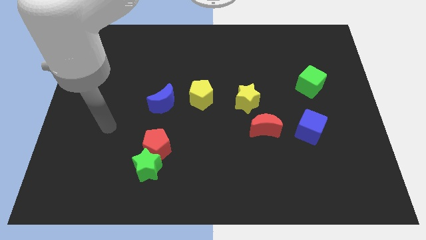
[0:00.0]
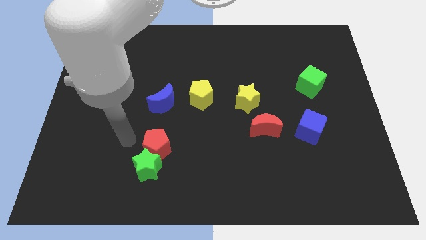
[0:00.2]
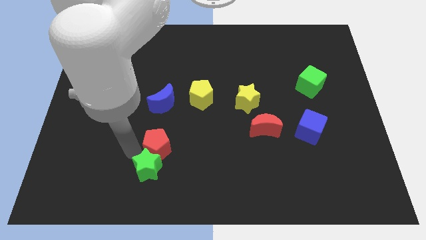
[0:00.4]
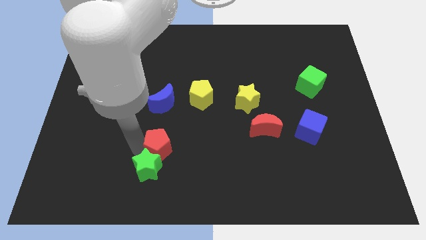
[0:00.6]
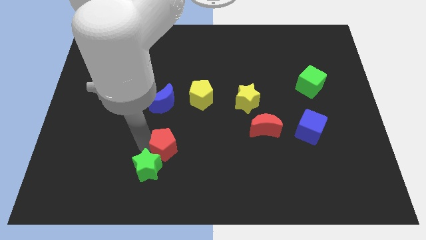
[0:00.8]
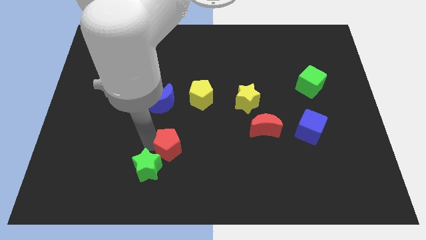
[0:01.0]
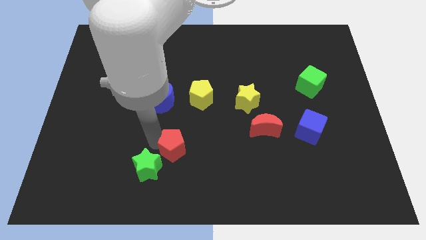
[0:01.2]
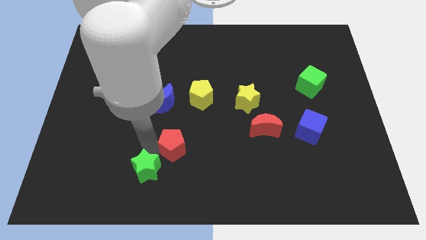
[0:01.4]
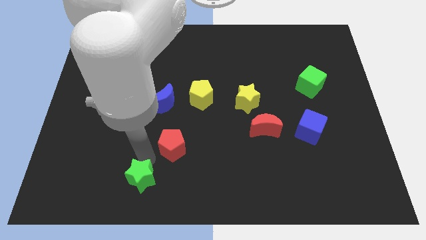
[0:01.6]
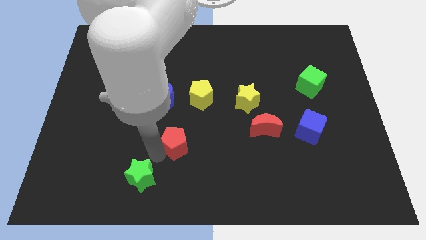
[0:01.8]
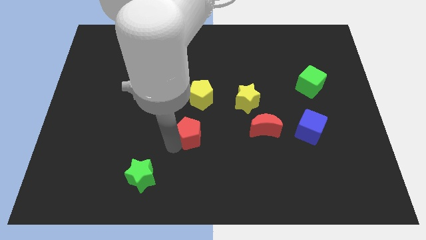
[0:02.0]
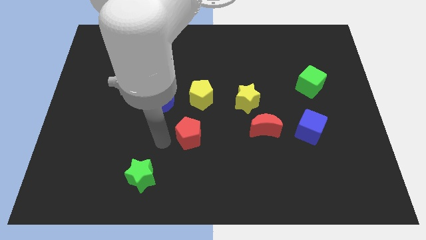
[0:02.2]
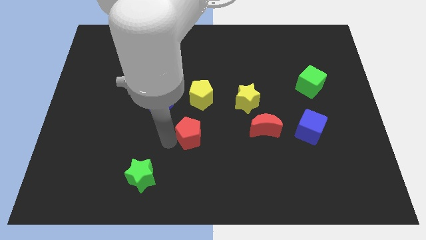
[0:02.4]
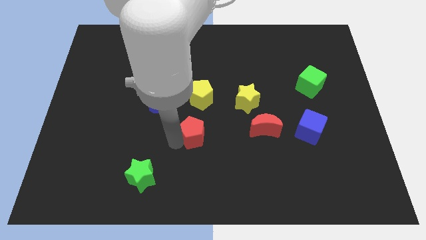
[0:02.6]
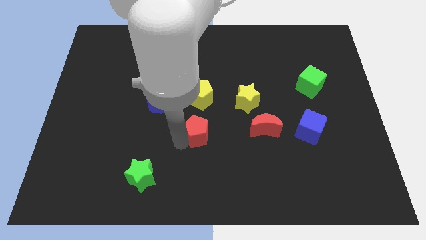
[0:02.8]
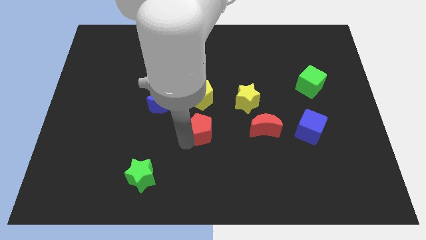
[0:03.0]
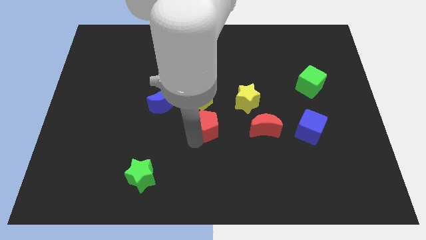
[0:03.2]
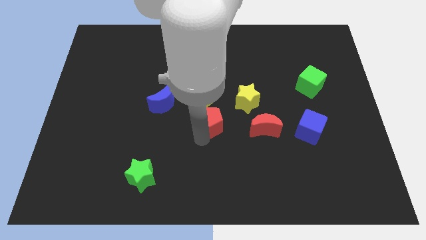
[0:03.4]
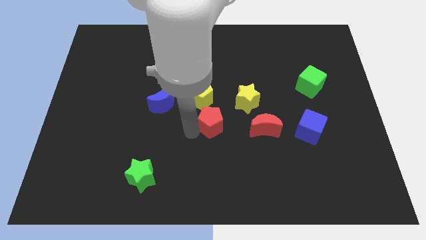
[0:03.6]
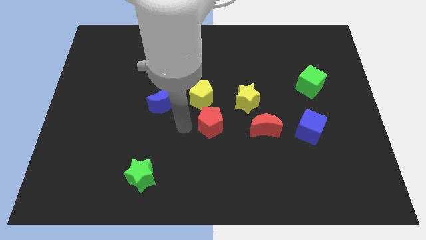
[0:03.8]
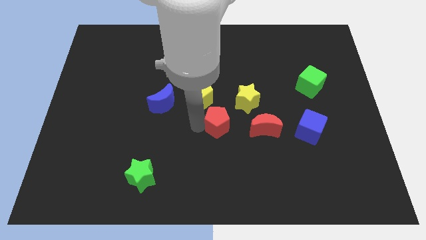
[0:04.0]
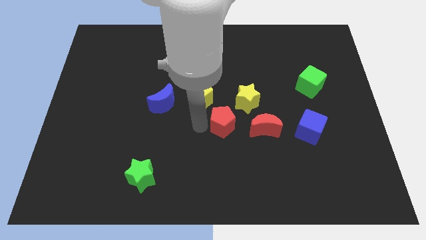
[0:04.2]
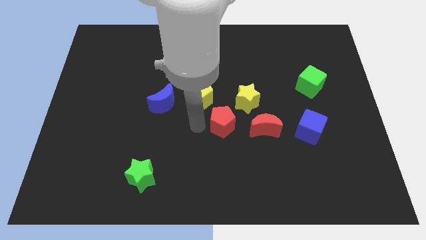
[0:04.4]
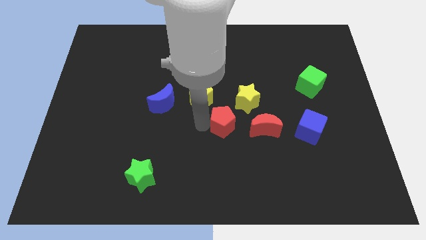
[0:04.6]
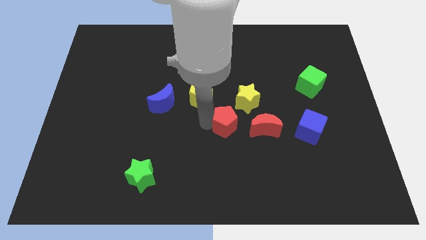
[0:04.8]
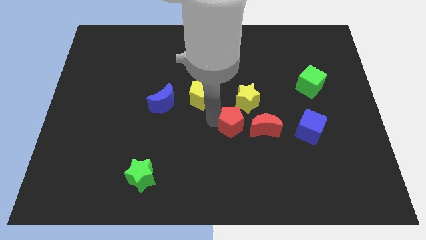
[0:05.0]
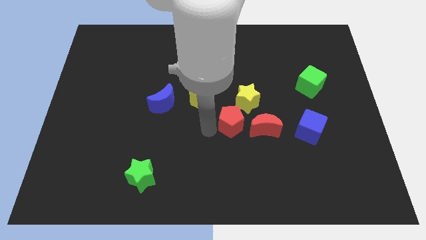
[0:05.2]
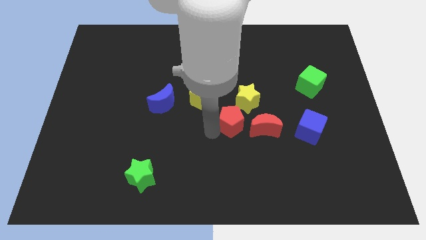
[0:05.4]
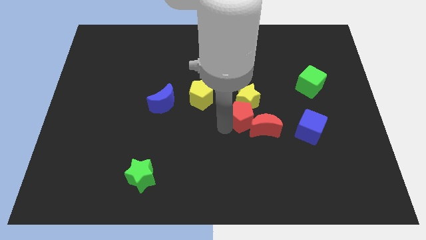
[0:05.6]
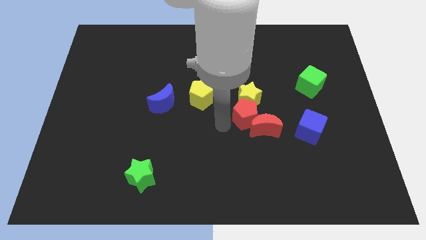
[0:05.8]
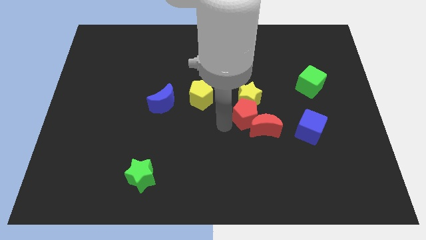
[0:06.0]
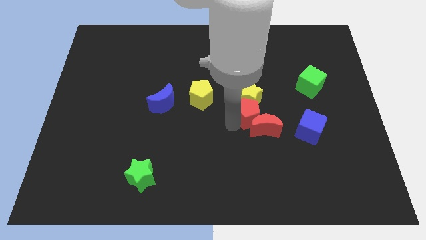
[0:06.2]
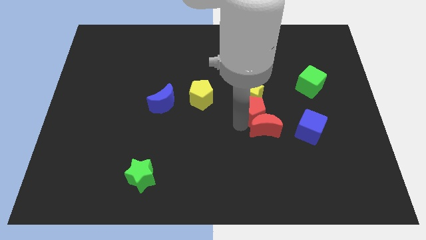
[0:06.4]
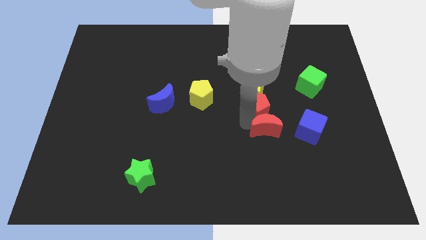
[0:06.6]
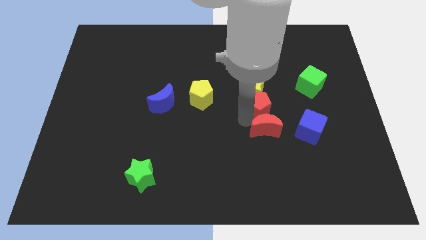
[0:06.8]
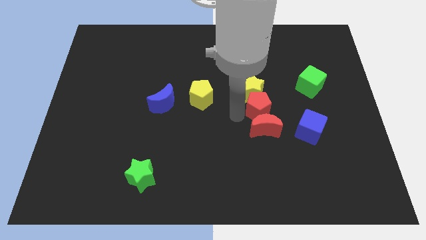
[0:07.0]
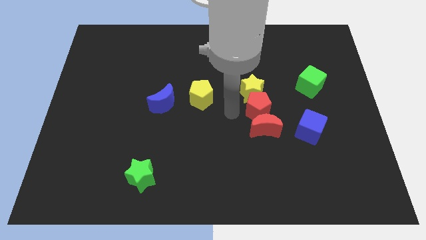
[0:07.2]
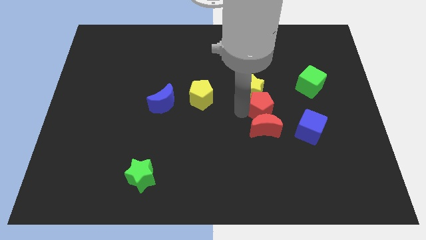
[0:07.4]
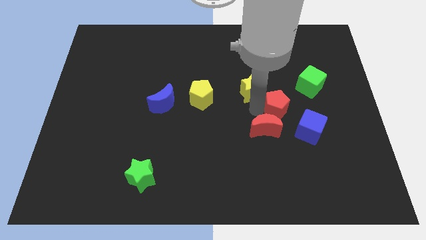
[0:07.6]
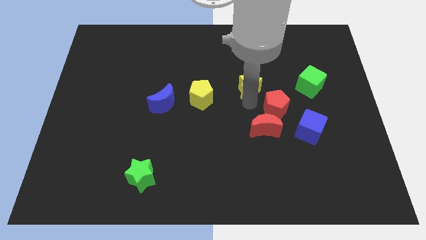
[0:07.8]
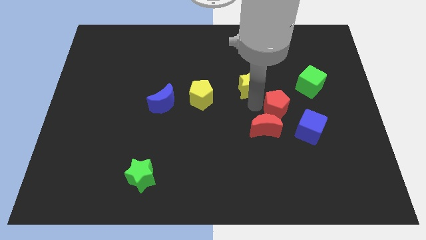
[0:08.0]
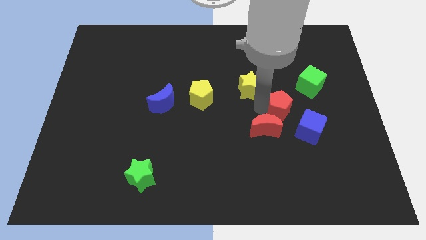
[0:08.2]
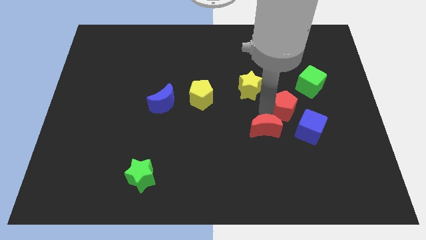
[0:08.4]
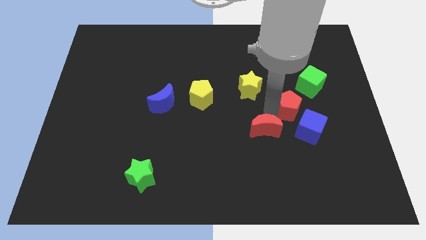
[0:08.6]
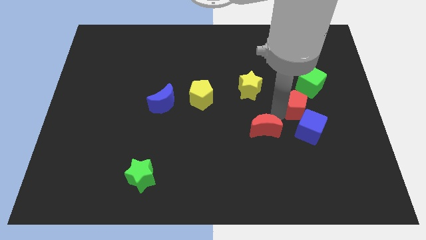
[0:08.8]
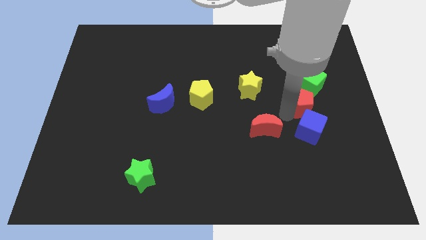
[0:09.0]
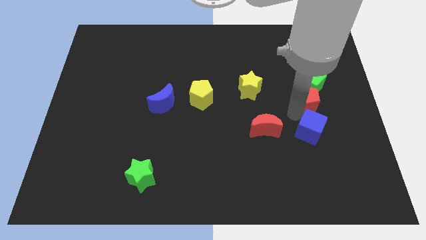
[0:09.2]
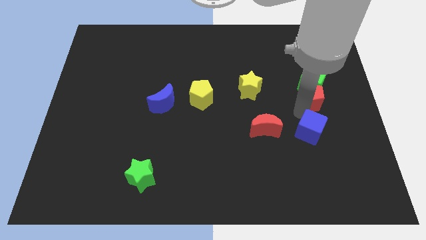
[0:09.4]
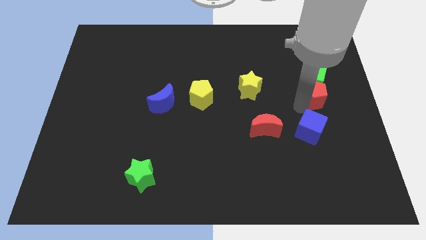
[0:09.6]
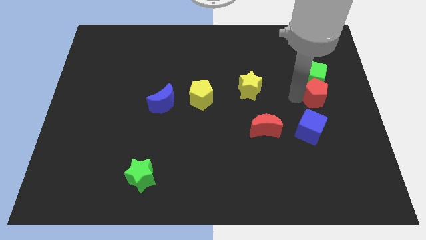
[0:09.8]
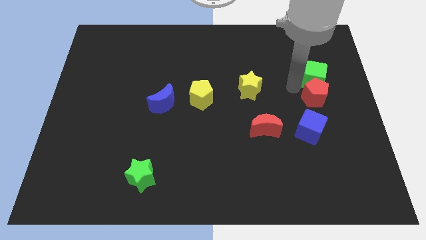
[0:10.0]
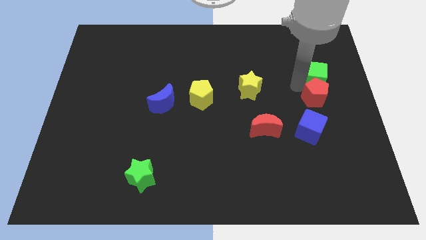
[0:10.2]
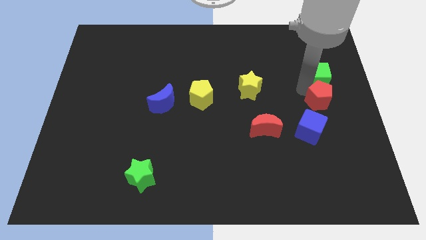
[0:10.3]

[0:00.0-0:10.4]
slide the red pentagon to the right side

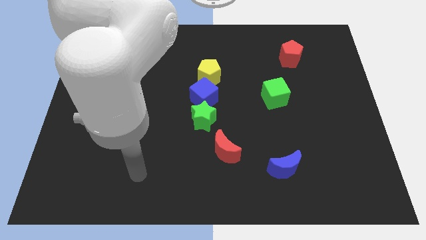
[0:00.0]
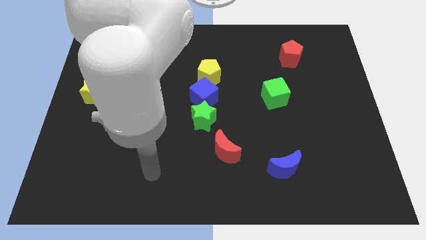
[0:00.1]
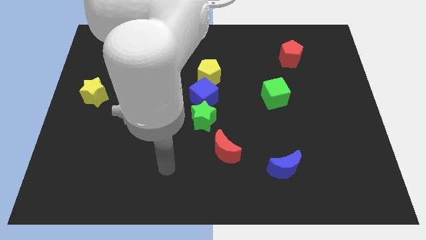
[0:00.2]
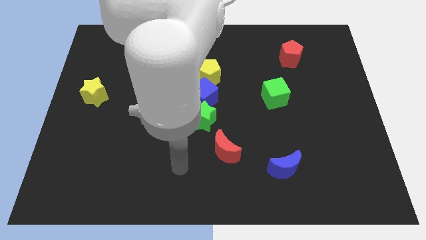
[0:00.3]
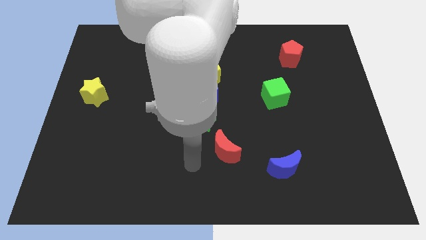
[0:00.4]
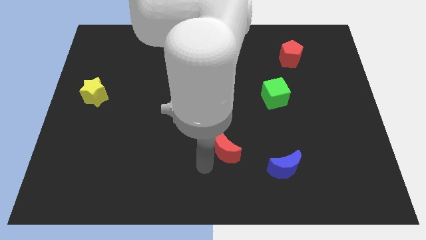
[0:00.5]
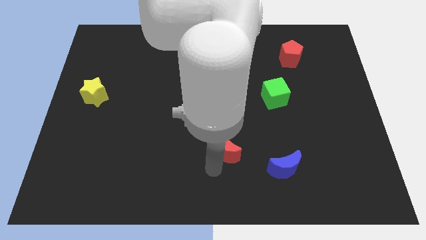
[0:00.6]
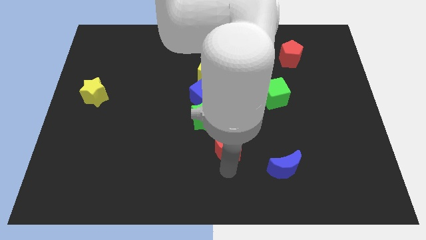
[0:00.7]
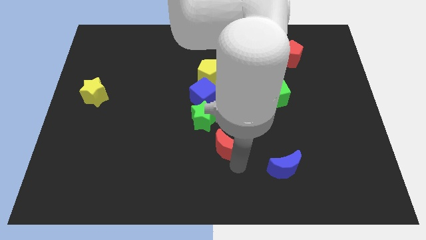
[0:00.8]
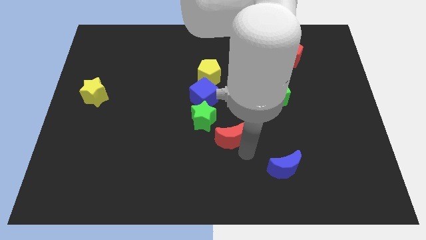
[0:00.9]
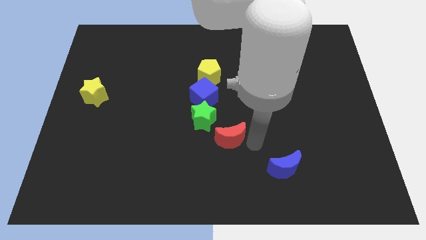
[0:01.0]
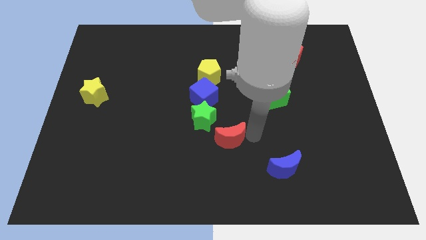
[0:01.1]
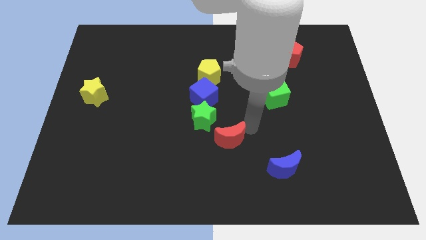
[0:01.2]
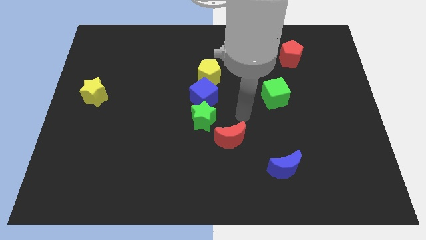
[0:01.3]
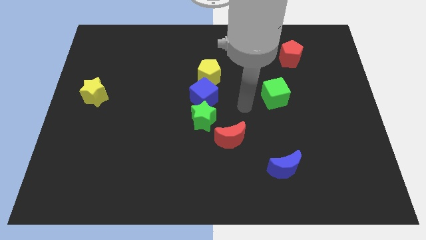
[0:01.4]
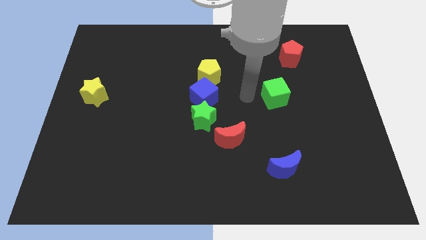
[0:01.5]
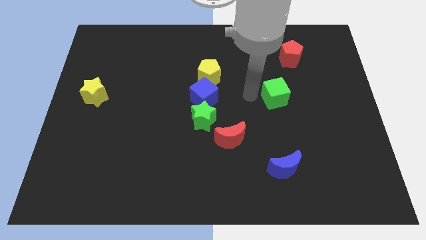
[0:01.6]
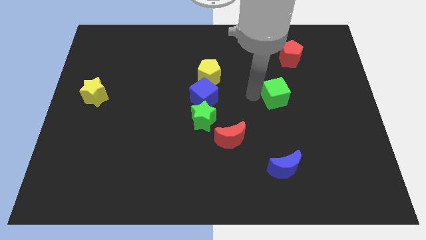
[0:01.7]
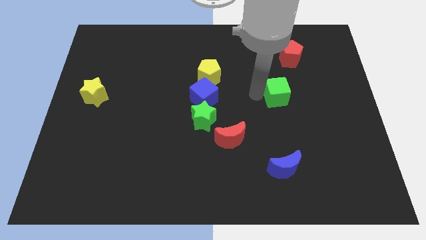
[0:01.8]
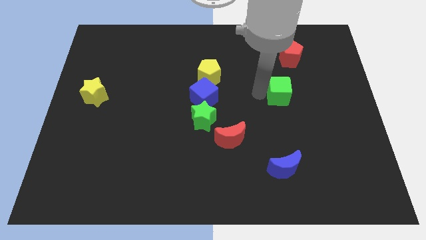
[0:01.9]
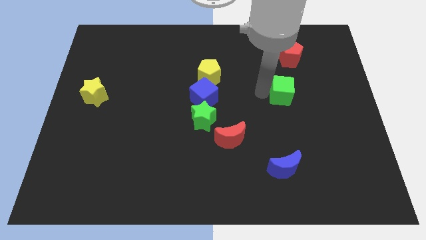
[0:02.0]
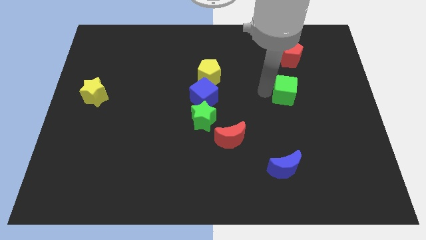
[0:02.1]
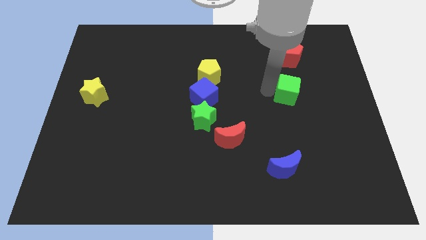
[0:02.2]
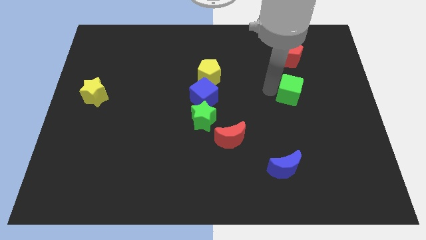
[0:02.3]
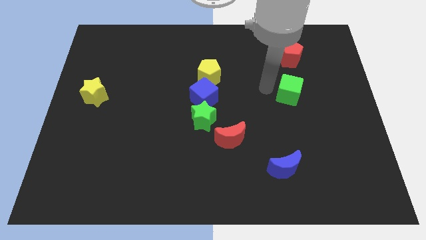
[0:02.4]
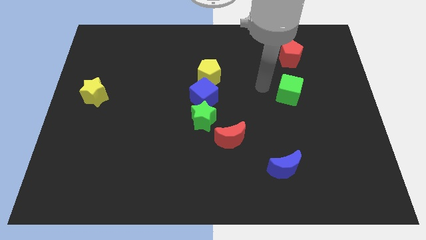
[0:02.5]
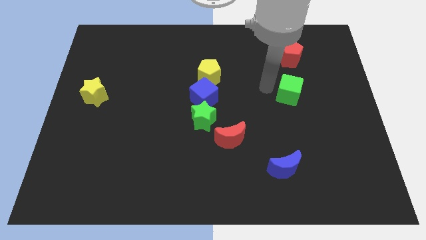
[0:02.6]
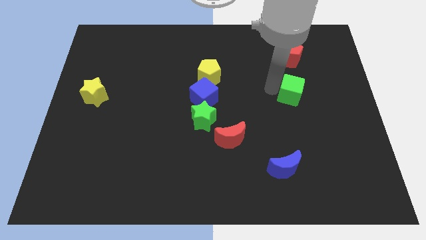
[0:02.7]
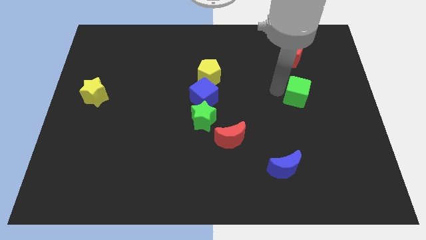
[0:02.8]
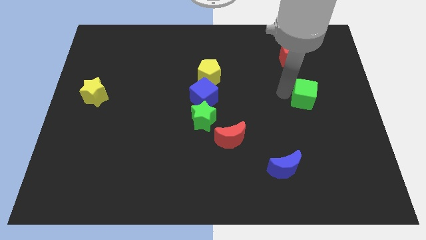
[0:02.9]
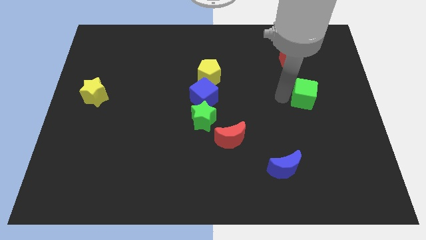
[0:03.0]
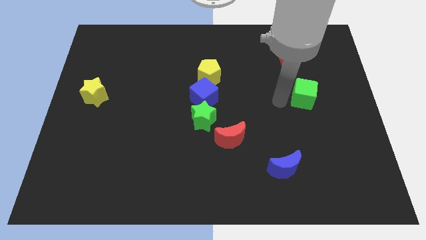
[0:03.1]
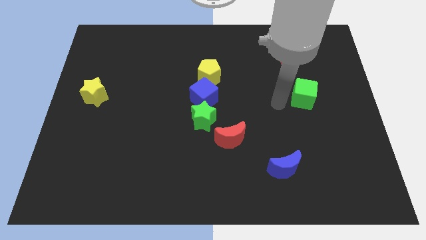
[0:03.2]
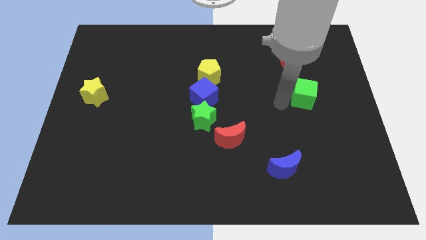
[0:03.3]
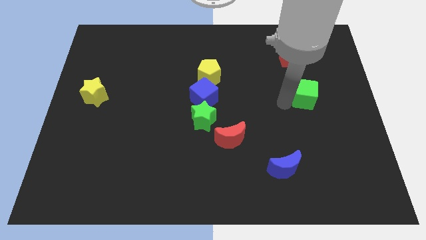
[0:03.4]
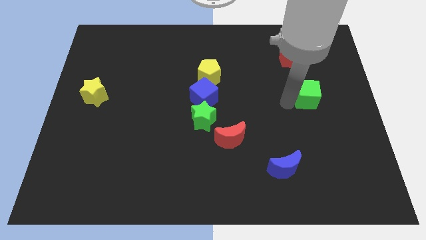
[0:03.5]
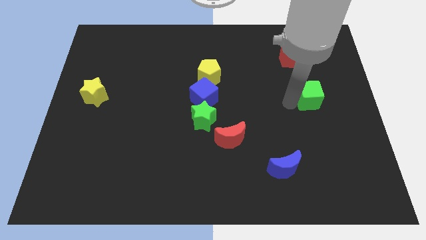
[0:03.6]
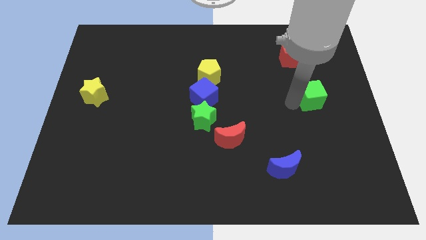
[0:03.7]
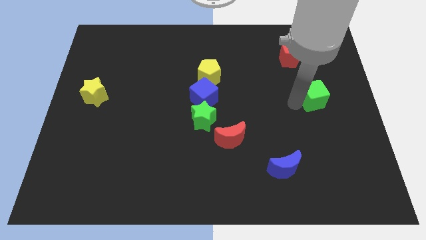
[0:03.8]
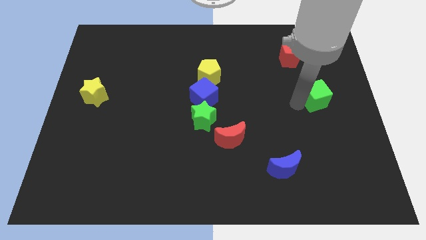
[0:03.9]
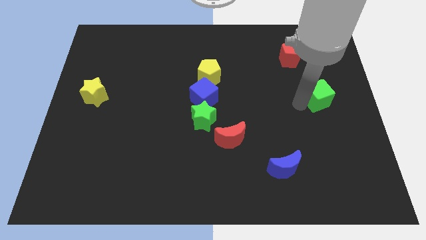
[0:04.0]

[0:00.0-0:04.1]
move the green cube to the center right
